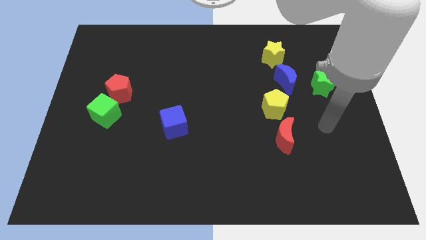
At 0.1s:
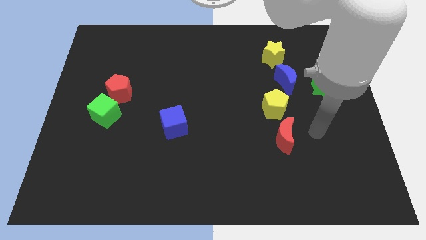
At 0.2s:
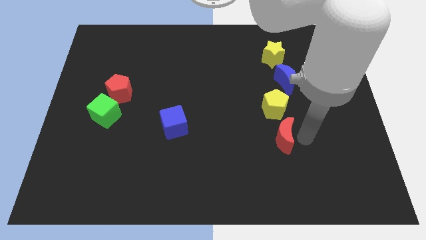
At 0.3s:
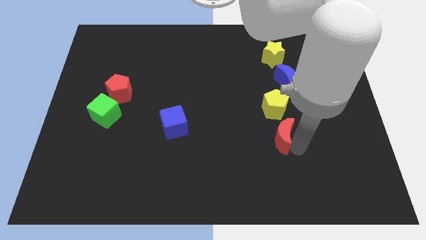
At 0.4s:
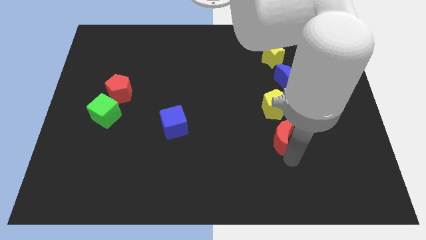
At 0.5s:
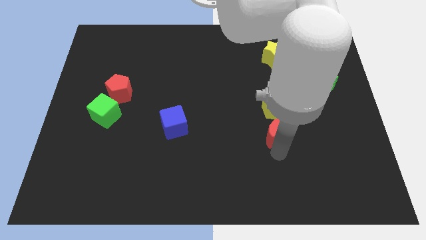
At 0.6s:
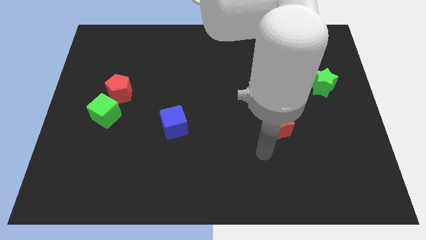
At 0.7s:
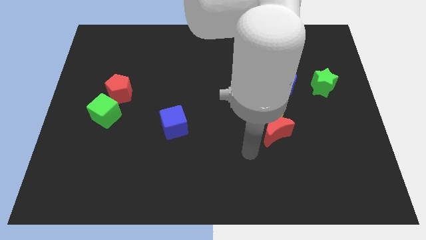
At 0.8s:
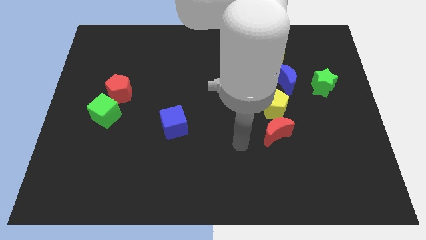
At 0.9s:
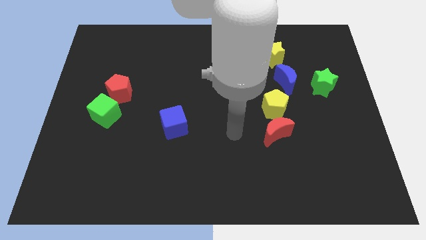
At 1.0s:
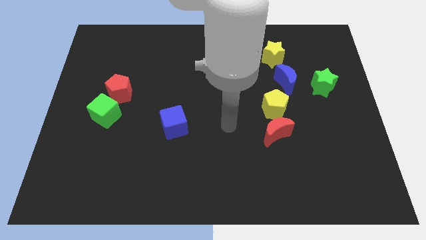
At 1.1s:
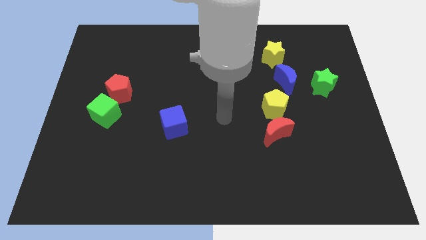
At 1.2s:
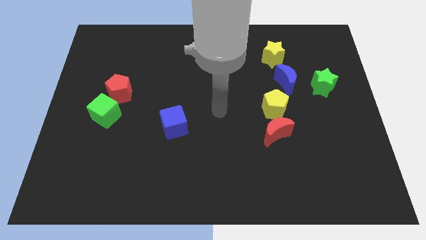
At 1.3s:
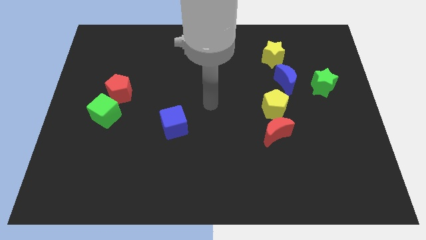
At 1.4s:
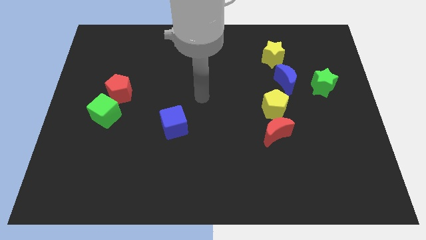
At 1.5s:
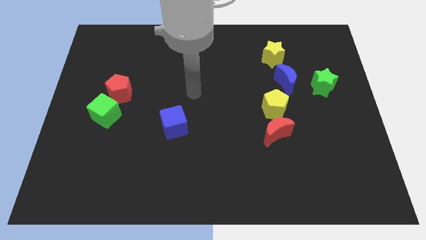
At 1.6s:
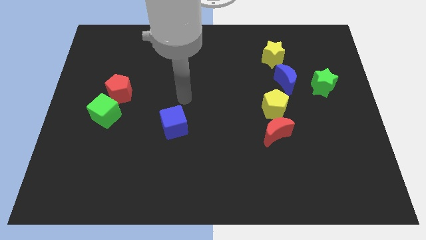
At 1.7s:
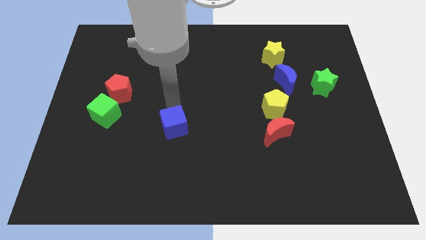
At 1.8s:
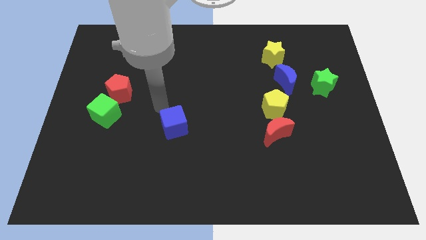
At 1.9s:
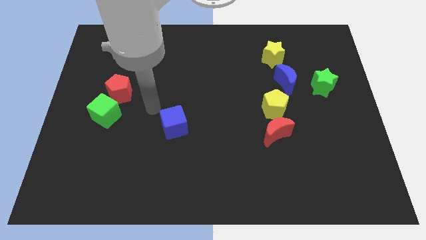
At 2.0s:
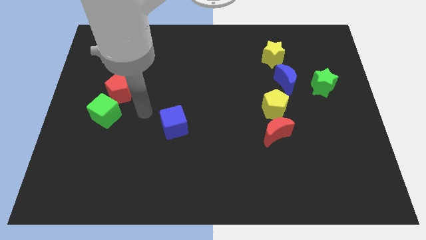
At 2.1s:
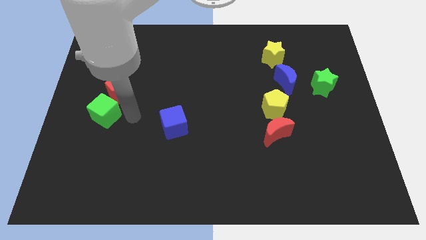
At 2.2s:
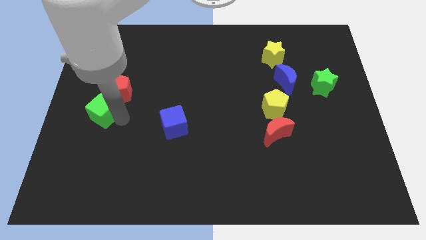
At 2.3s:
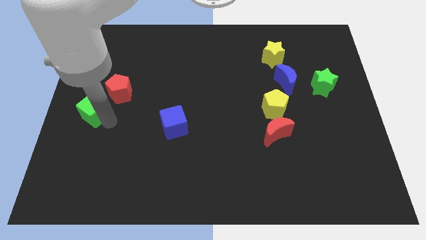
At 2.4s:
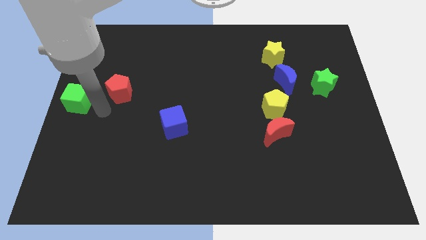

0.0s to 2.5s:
separate the red pentagon from the green cube

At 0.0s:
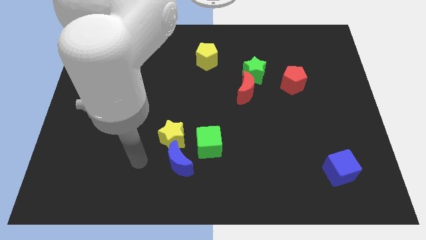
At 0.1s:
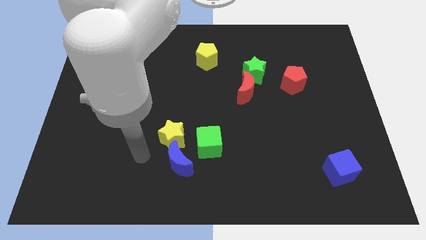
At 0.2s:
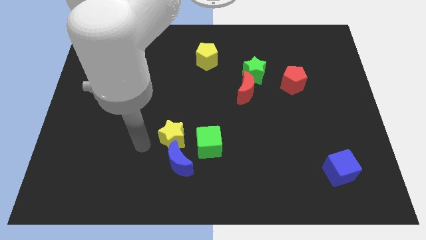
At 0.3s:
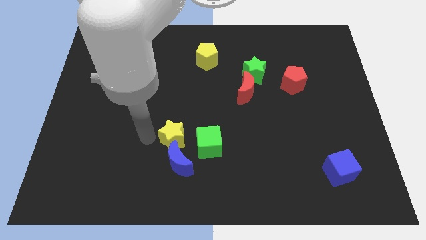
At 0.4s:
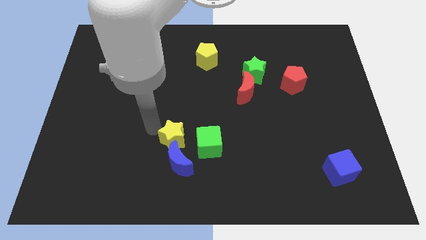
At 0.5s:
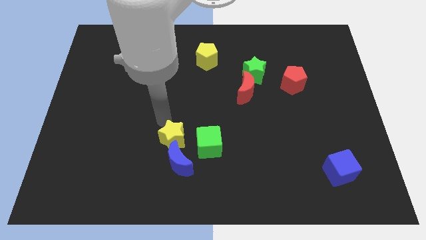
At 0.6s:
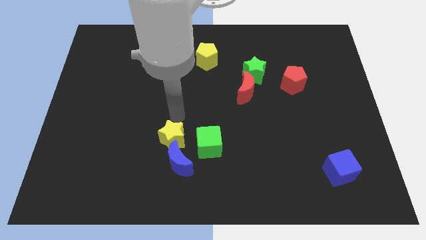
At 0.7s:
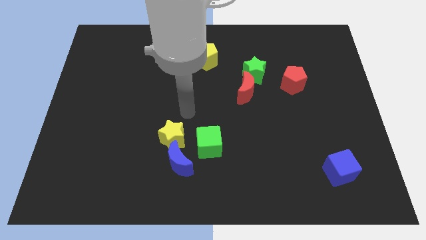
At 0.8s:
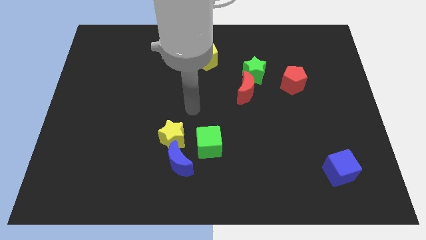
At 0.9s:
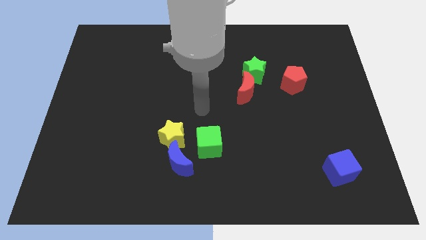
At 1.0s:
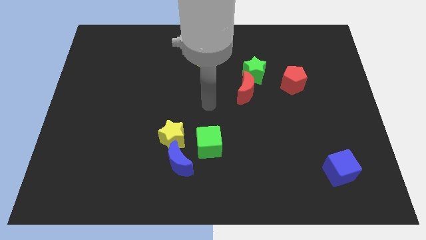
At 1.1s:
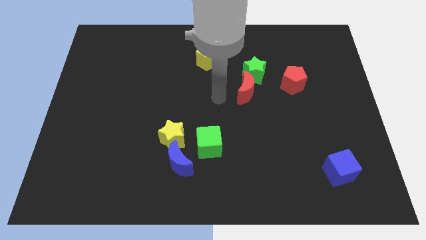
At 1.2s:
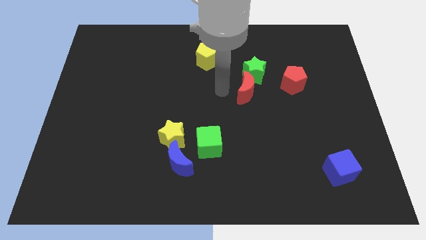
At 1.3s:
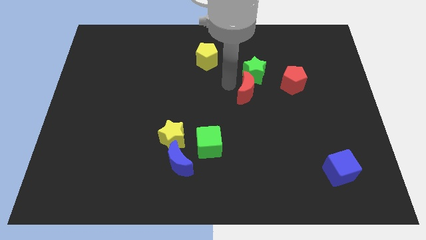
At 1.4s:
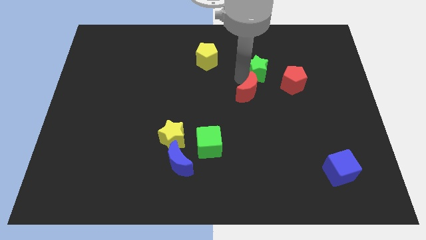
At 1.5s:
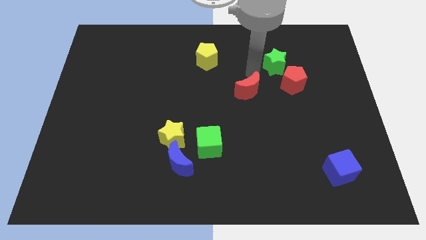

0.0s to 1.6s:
move the red moon away from the green star

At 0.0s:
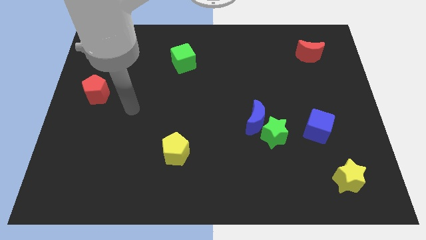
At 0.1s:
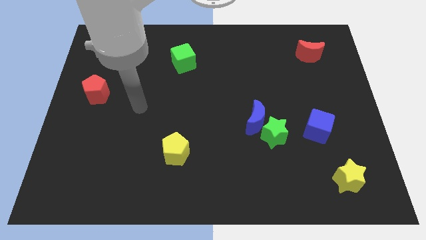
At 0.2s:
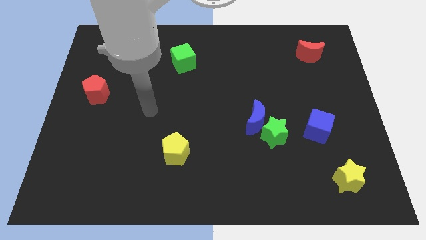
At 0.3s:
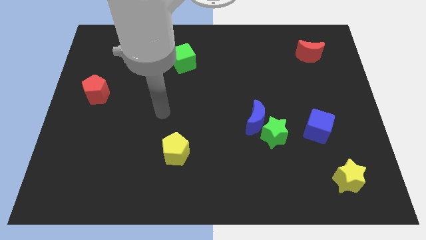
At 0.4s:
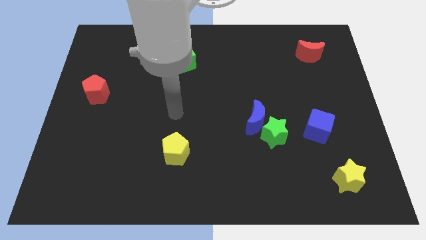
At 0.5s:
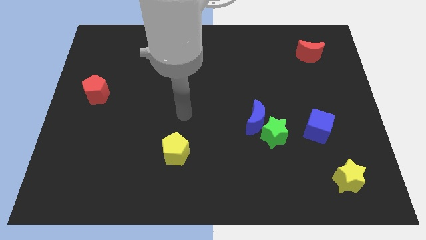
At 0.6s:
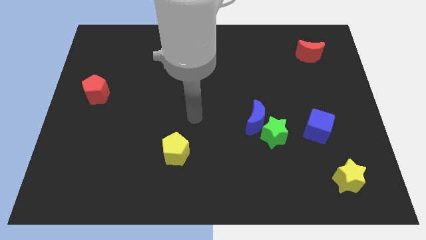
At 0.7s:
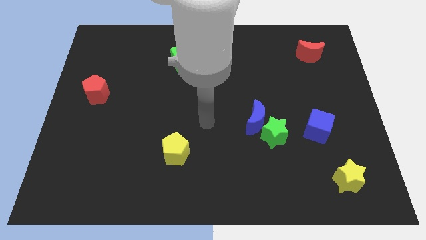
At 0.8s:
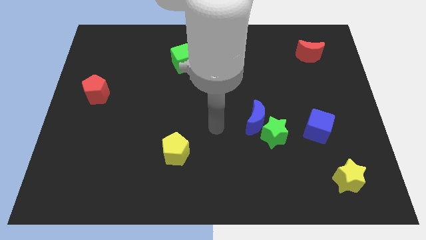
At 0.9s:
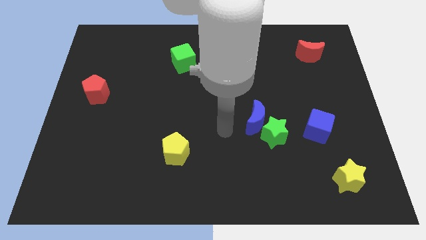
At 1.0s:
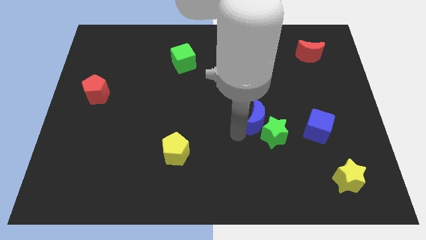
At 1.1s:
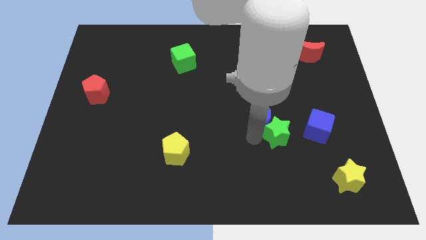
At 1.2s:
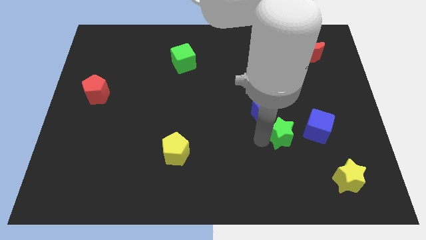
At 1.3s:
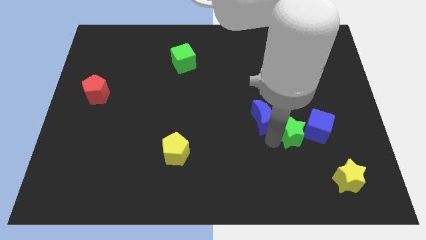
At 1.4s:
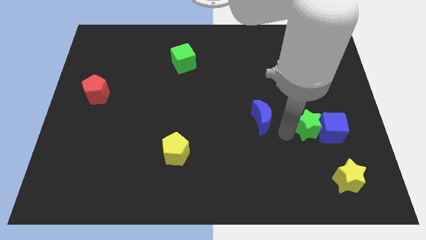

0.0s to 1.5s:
move the blue moon away from the green star

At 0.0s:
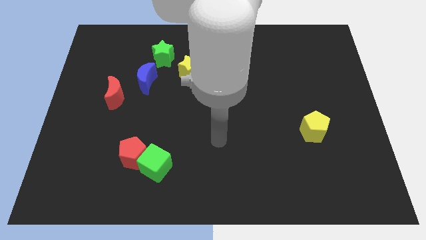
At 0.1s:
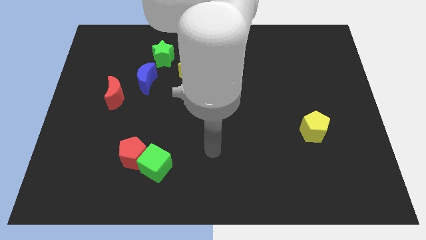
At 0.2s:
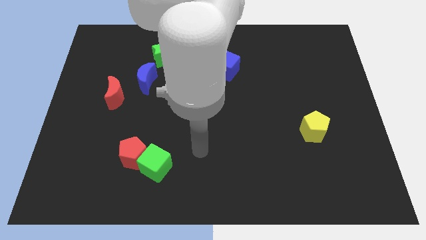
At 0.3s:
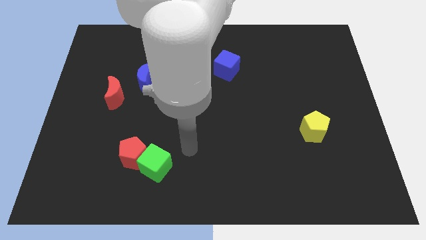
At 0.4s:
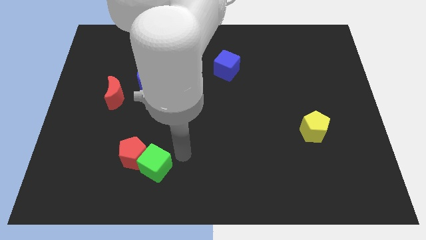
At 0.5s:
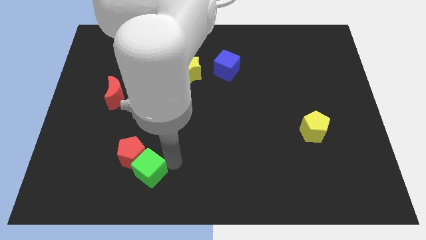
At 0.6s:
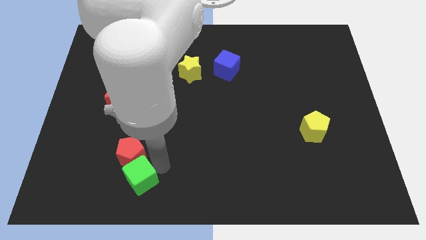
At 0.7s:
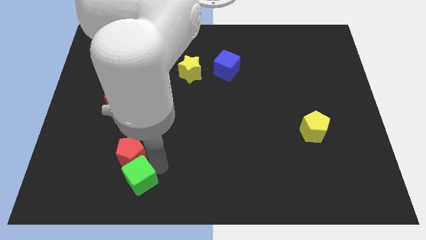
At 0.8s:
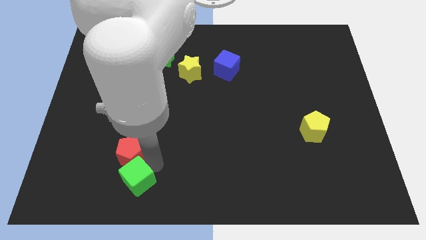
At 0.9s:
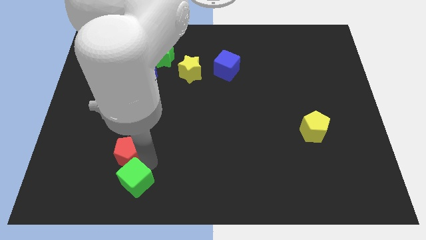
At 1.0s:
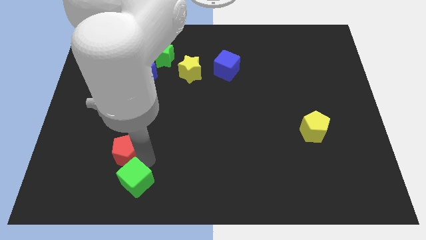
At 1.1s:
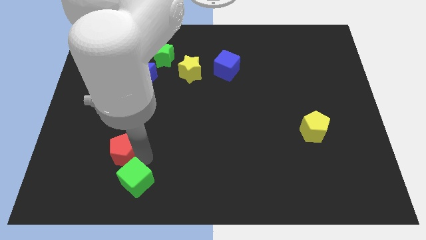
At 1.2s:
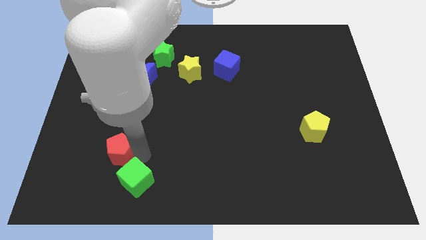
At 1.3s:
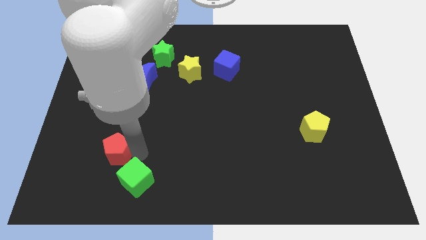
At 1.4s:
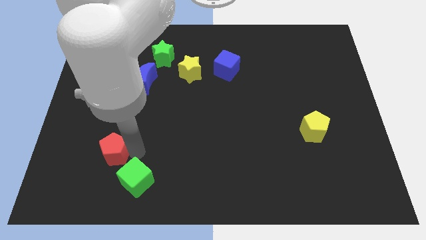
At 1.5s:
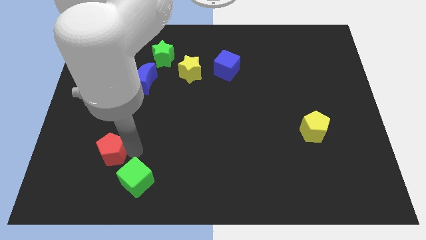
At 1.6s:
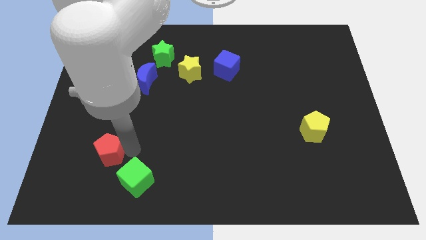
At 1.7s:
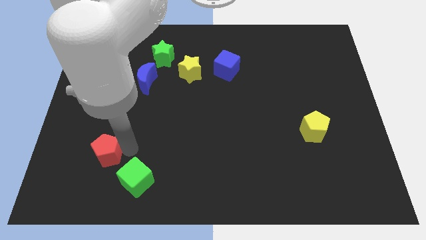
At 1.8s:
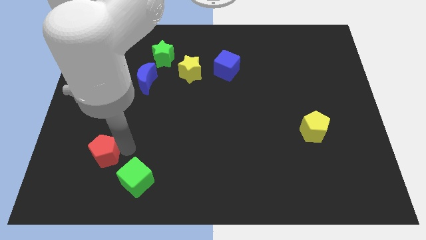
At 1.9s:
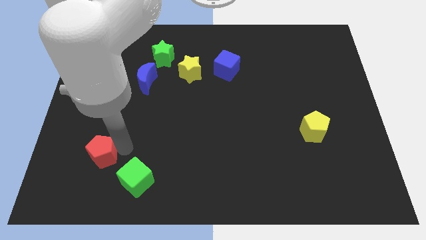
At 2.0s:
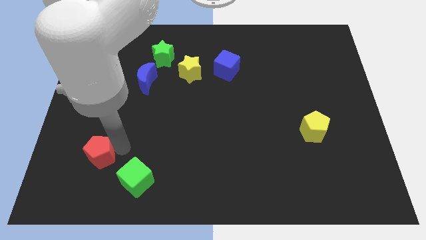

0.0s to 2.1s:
pull the red pentagon apart from the green cube

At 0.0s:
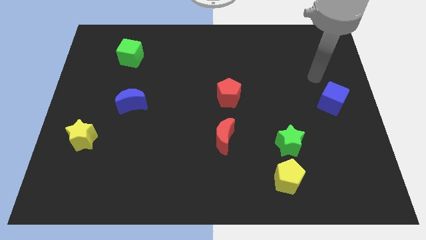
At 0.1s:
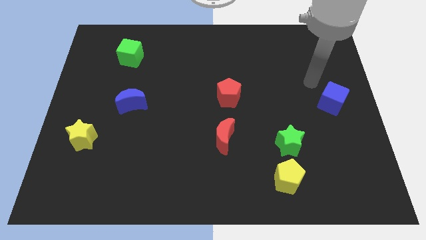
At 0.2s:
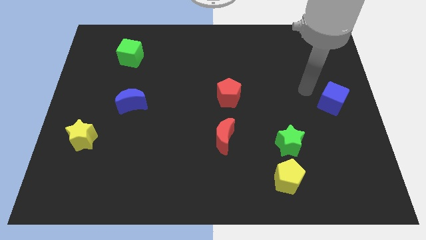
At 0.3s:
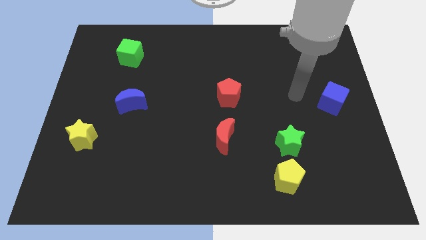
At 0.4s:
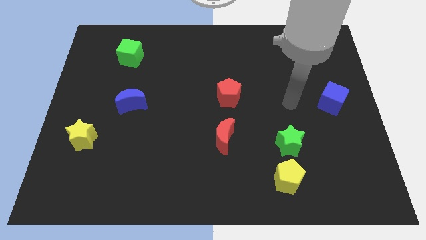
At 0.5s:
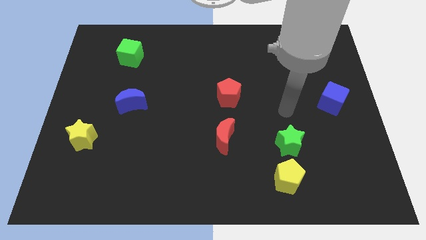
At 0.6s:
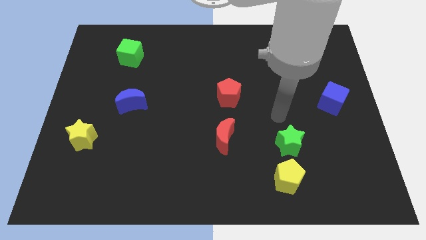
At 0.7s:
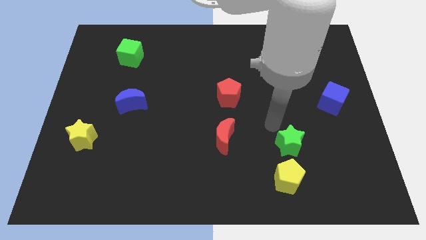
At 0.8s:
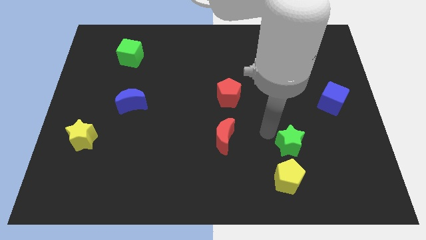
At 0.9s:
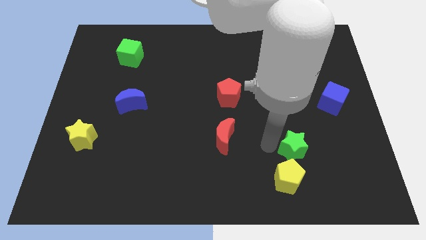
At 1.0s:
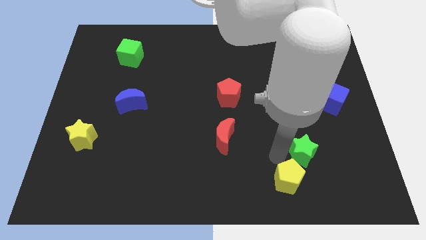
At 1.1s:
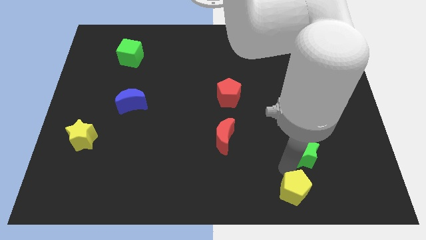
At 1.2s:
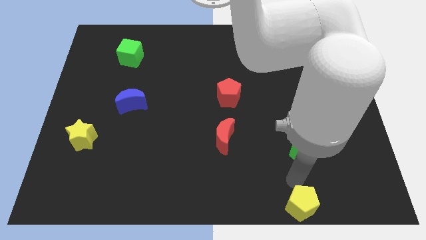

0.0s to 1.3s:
separate the green star from the yellow pentagon

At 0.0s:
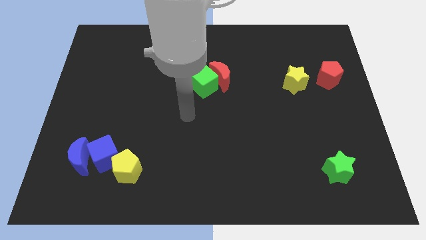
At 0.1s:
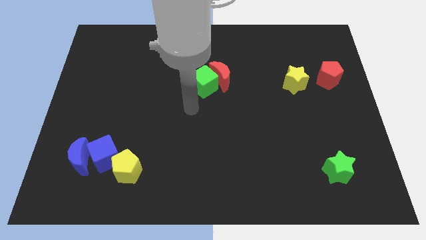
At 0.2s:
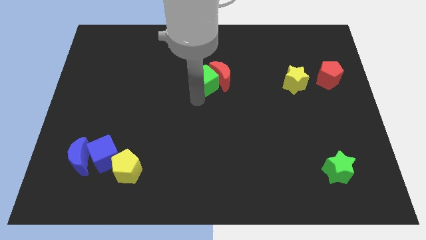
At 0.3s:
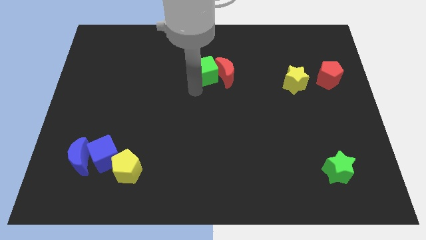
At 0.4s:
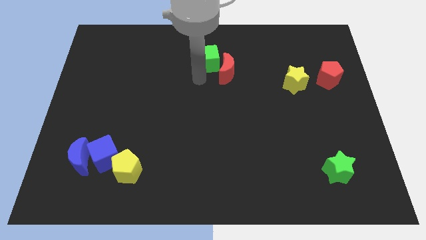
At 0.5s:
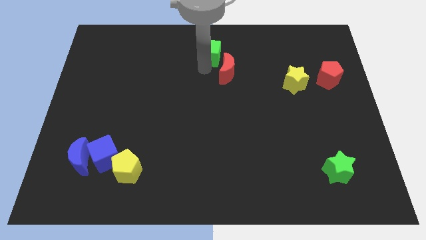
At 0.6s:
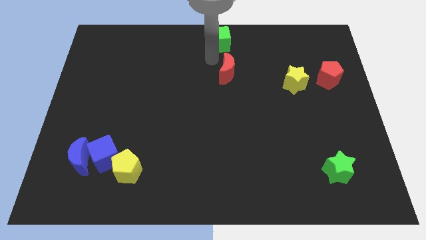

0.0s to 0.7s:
pull the red moon apart from the green cube
